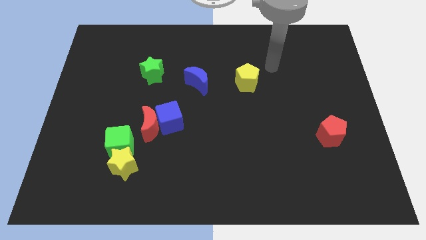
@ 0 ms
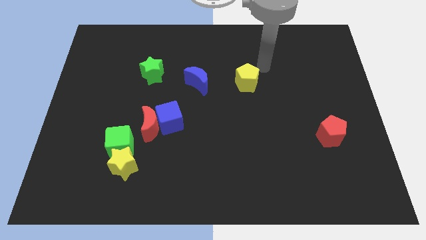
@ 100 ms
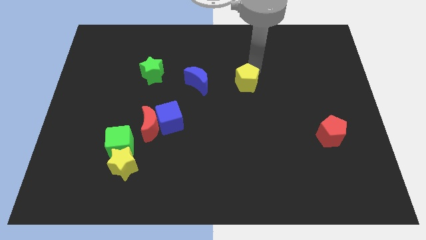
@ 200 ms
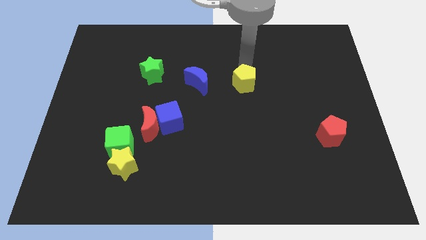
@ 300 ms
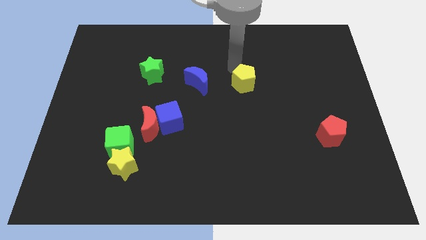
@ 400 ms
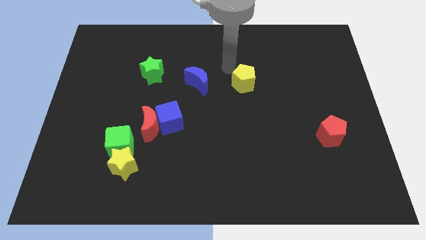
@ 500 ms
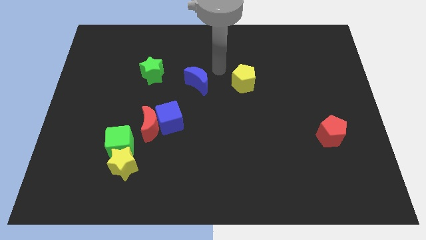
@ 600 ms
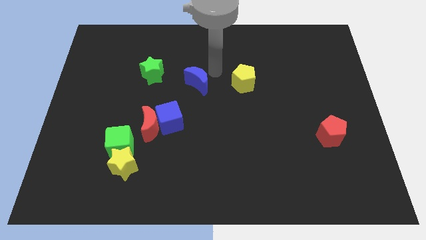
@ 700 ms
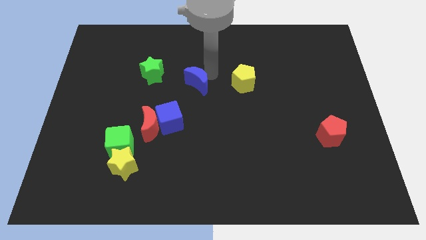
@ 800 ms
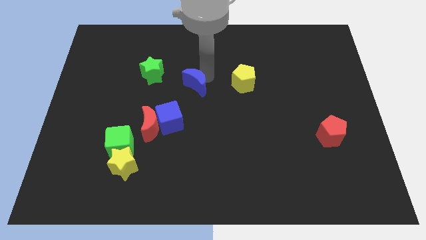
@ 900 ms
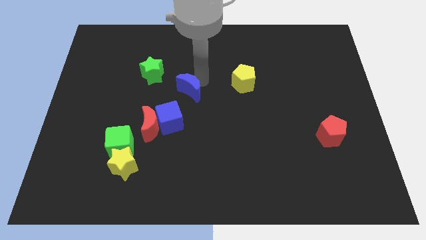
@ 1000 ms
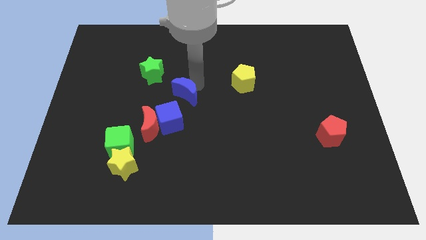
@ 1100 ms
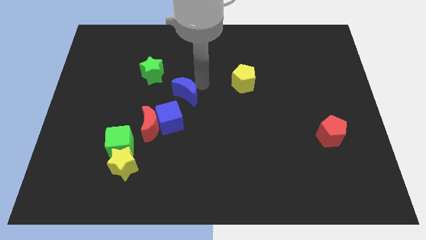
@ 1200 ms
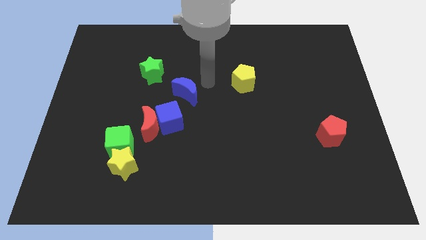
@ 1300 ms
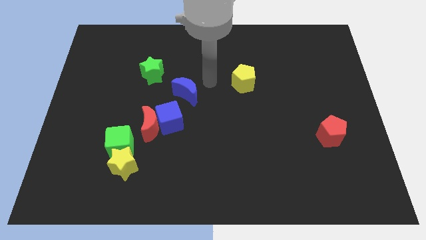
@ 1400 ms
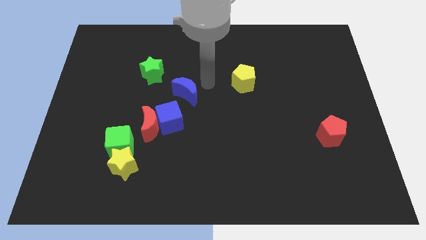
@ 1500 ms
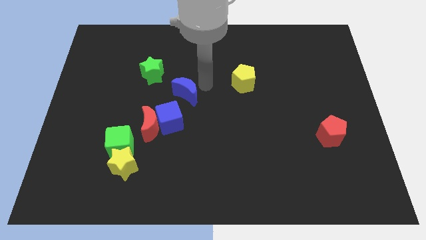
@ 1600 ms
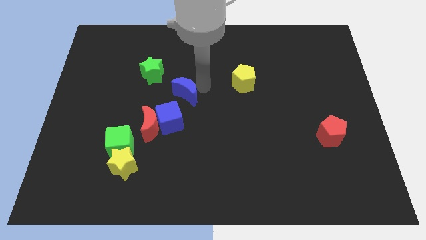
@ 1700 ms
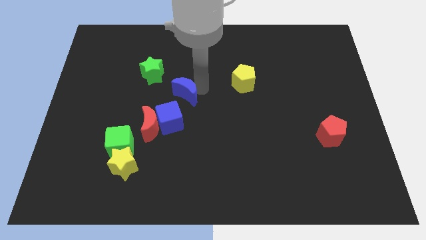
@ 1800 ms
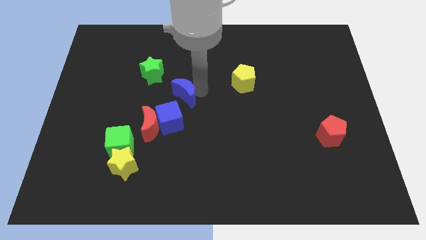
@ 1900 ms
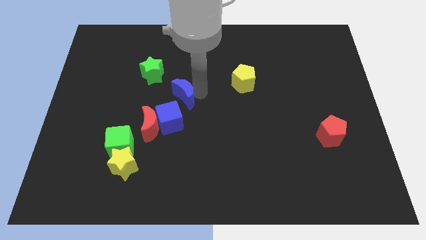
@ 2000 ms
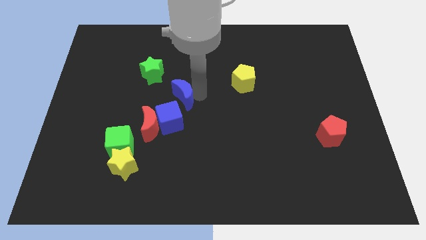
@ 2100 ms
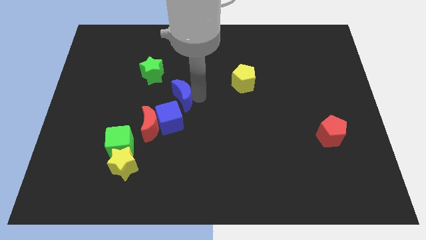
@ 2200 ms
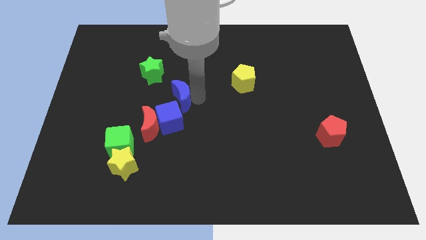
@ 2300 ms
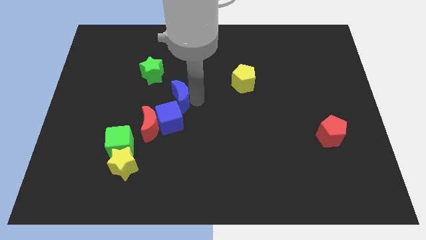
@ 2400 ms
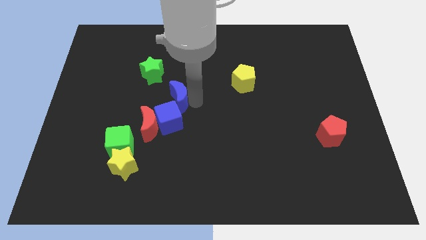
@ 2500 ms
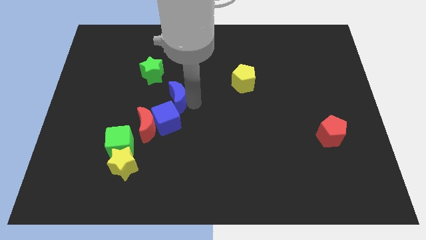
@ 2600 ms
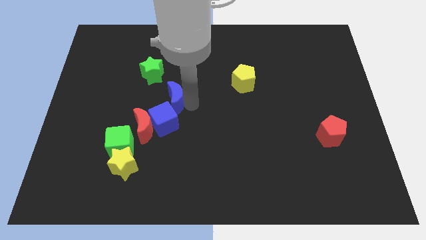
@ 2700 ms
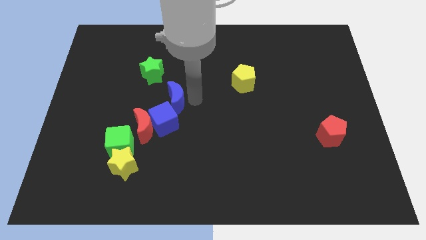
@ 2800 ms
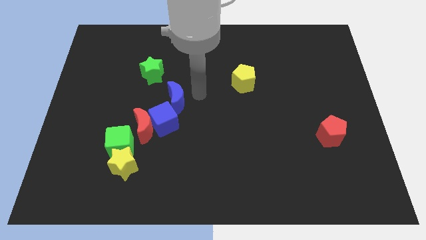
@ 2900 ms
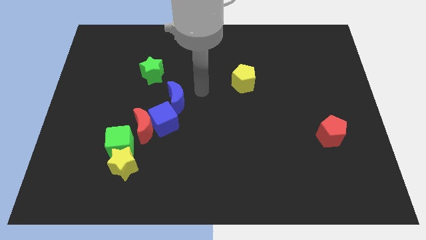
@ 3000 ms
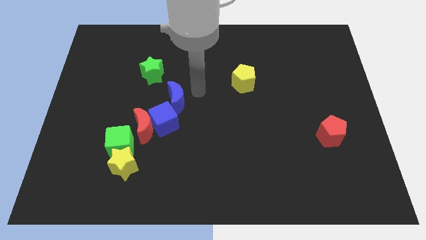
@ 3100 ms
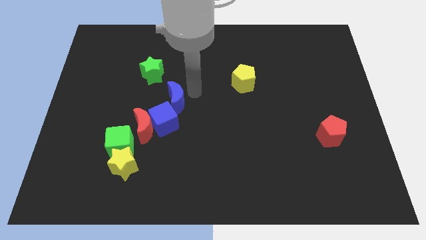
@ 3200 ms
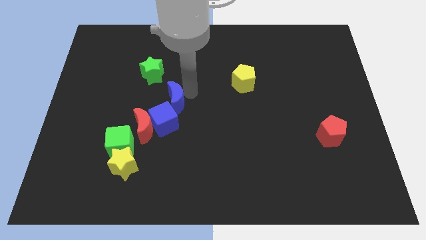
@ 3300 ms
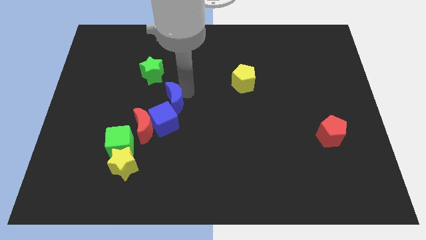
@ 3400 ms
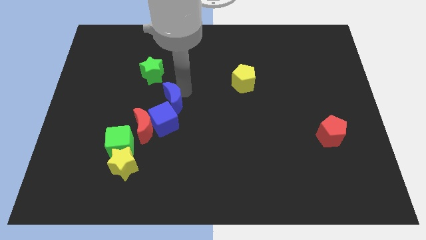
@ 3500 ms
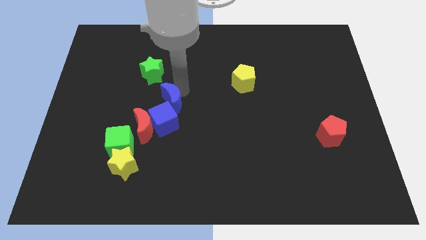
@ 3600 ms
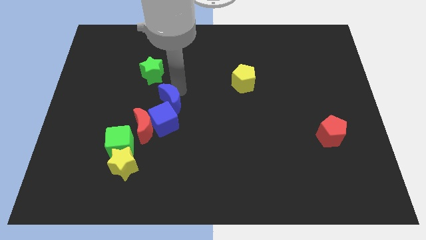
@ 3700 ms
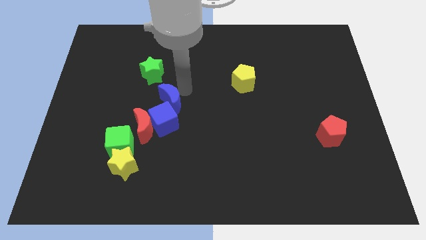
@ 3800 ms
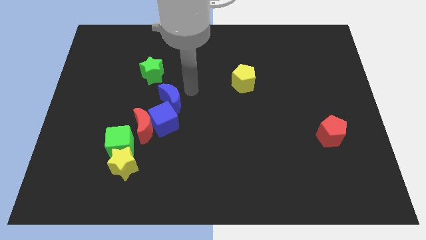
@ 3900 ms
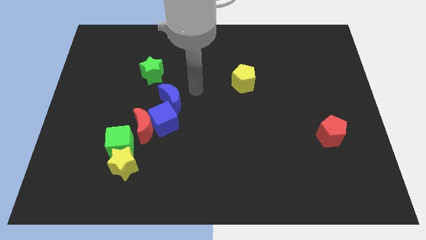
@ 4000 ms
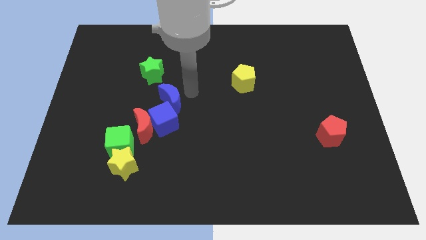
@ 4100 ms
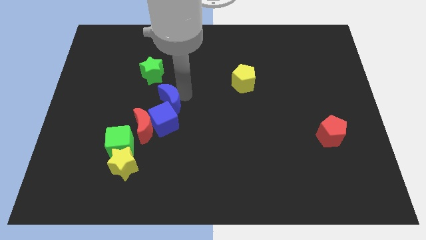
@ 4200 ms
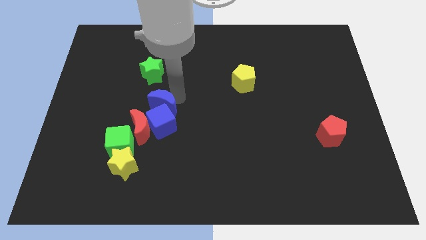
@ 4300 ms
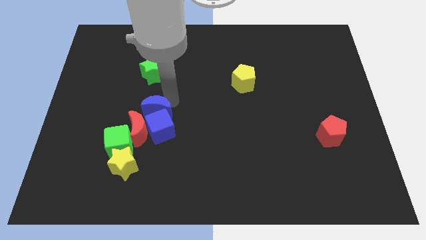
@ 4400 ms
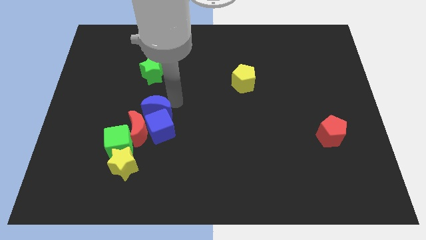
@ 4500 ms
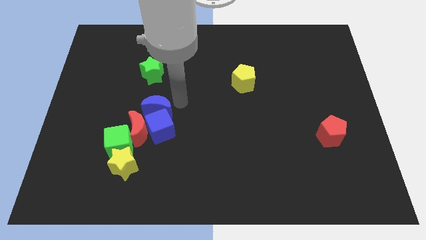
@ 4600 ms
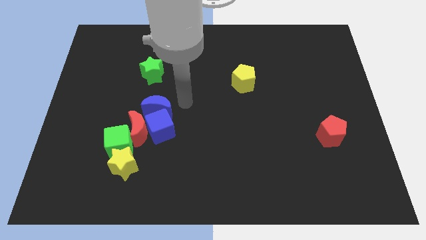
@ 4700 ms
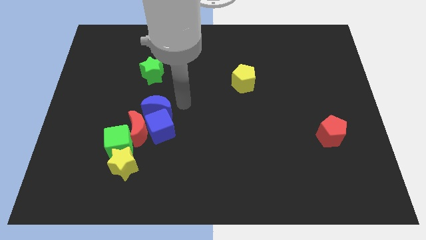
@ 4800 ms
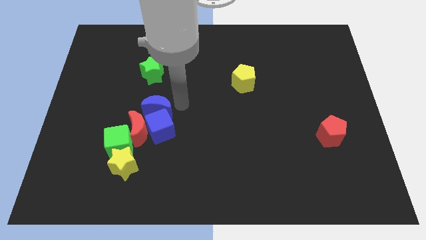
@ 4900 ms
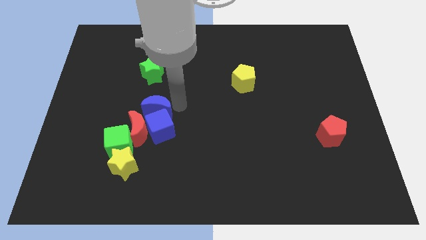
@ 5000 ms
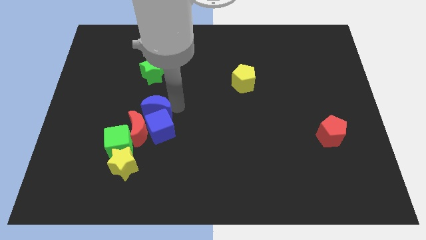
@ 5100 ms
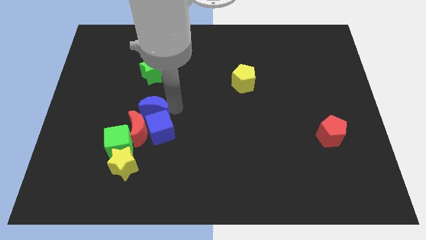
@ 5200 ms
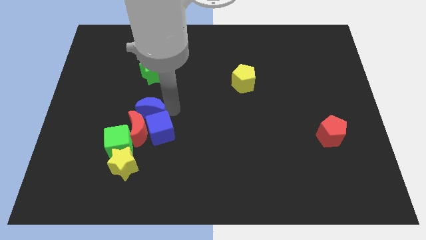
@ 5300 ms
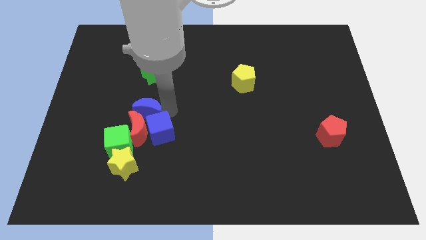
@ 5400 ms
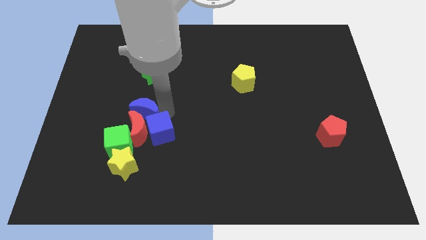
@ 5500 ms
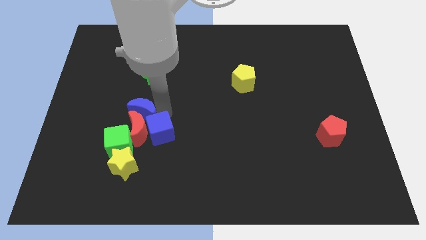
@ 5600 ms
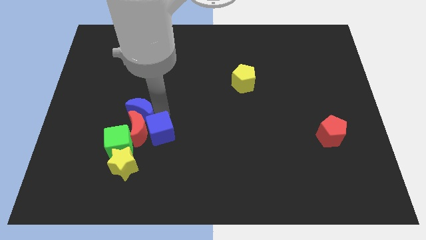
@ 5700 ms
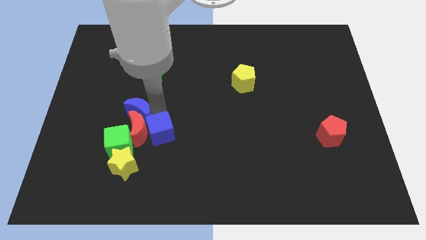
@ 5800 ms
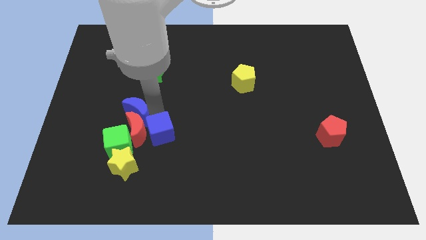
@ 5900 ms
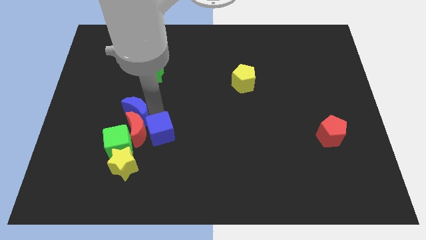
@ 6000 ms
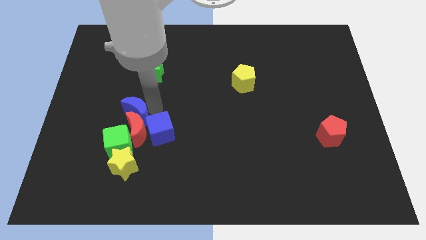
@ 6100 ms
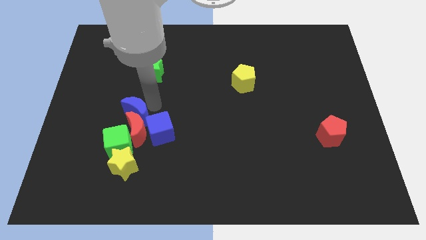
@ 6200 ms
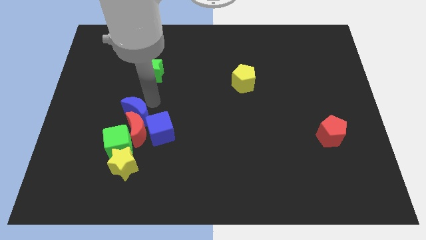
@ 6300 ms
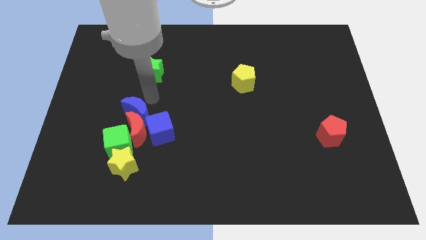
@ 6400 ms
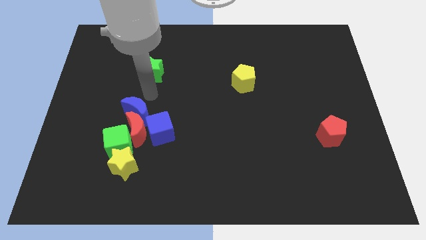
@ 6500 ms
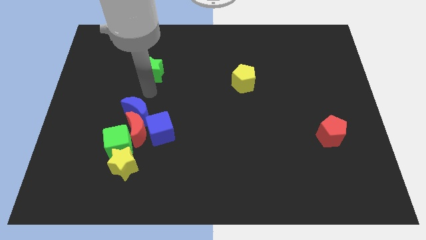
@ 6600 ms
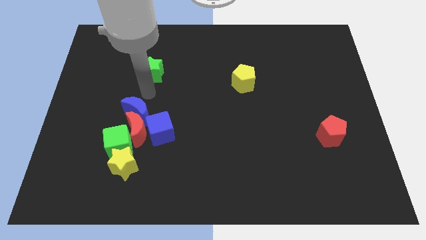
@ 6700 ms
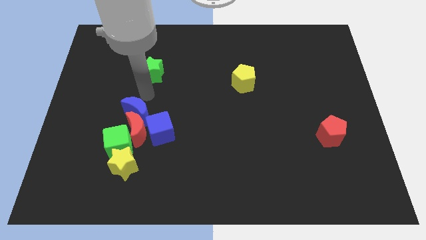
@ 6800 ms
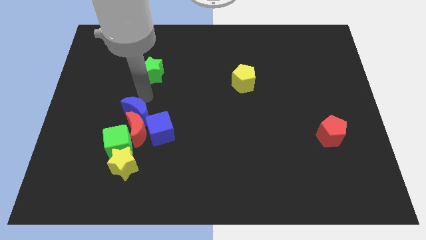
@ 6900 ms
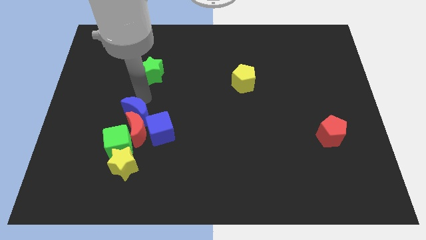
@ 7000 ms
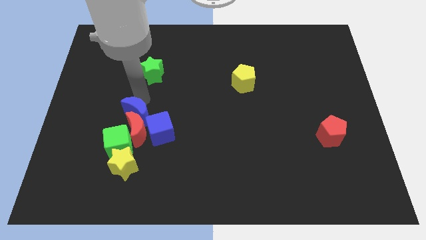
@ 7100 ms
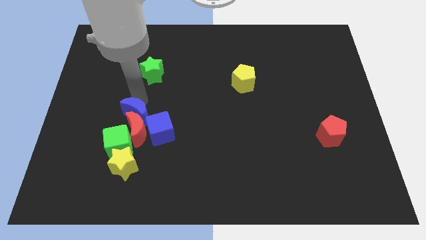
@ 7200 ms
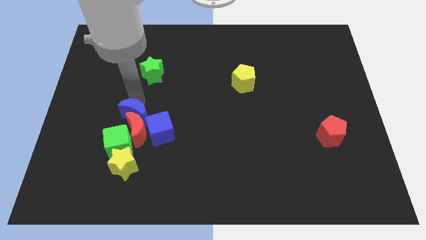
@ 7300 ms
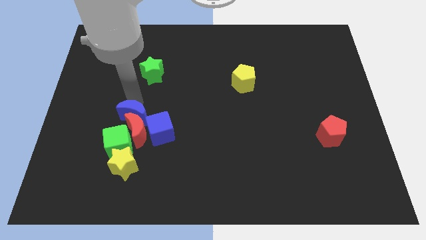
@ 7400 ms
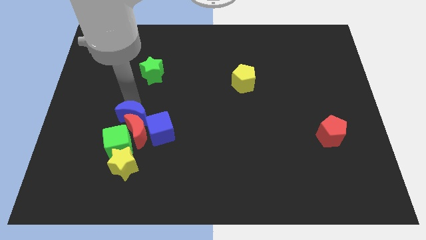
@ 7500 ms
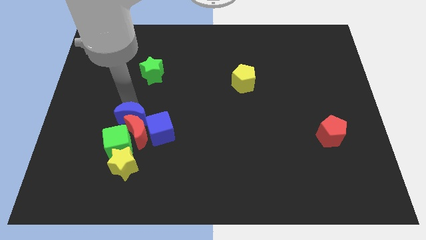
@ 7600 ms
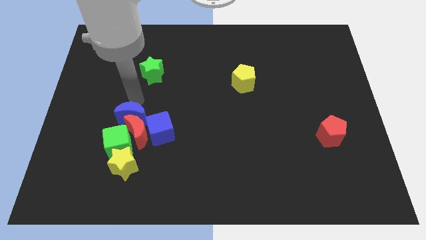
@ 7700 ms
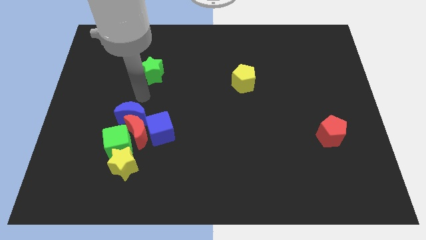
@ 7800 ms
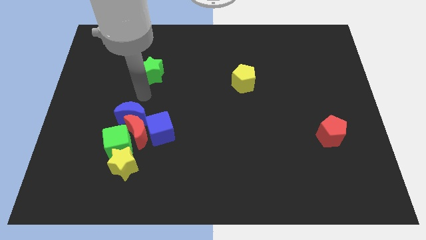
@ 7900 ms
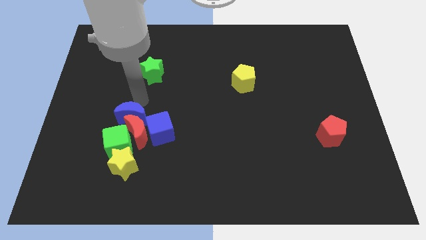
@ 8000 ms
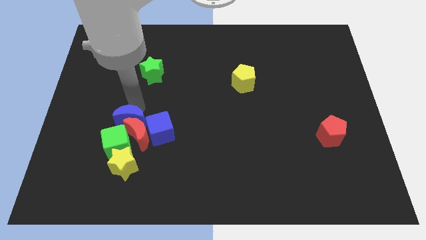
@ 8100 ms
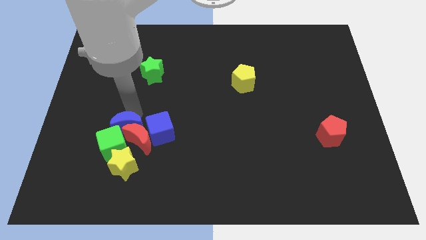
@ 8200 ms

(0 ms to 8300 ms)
put the blue moon to the green cube
